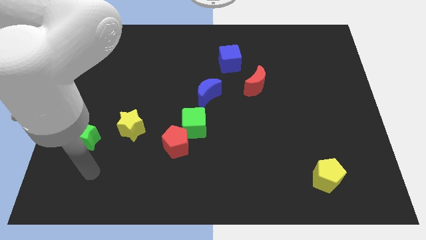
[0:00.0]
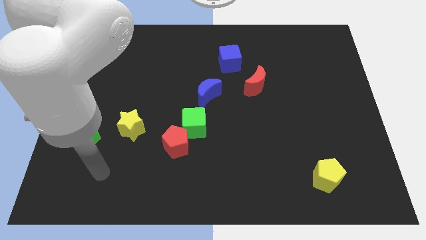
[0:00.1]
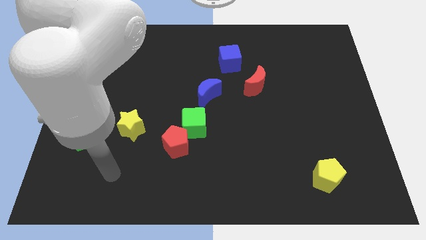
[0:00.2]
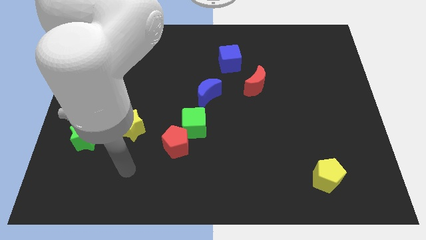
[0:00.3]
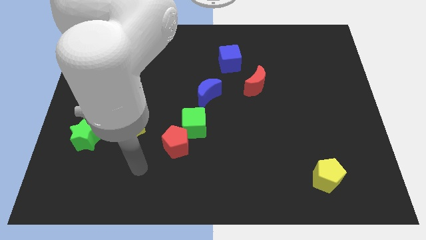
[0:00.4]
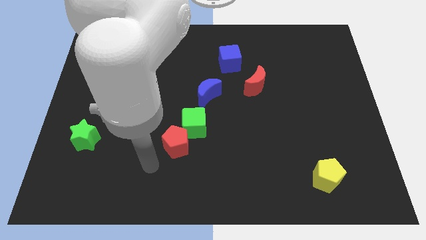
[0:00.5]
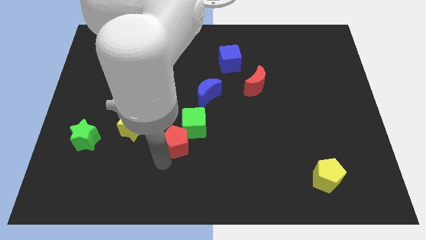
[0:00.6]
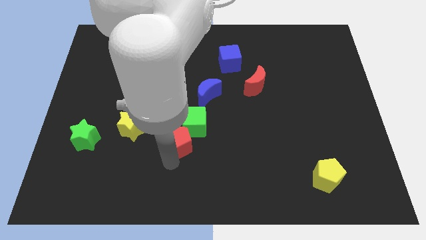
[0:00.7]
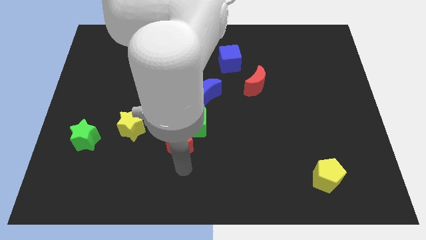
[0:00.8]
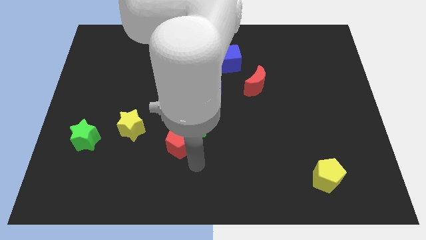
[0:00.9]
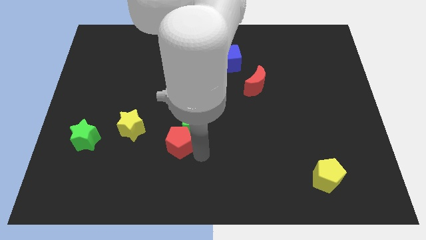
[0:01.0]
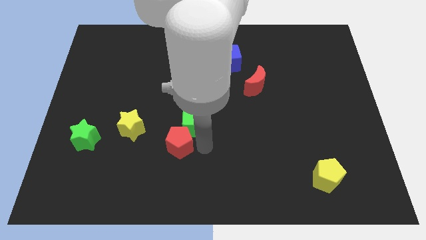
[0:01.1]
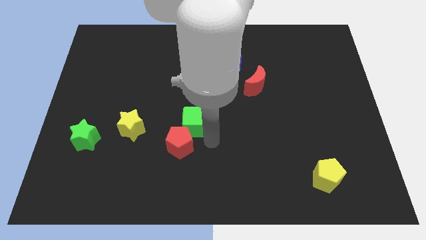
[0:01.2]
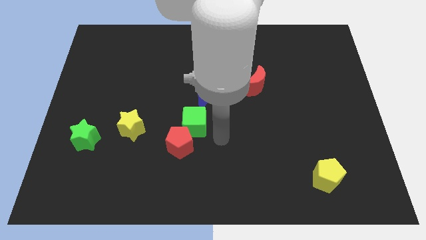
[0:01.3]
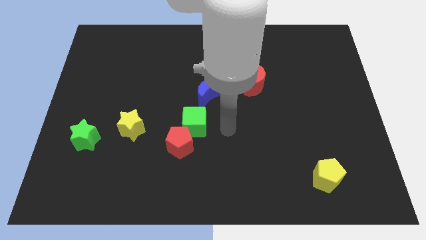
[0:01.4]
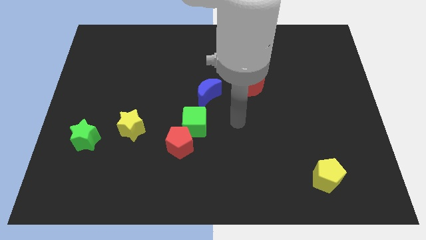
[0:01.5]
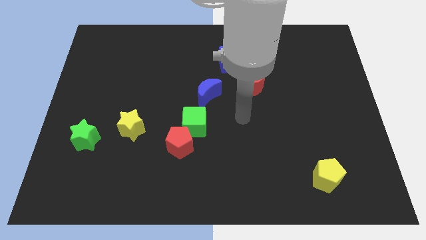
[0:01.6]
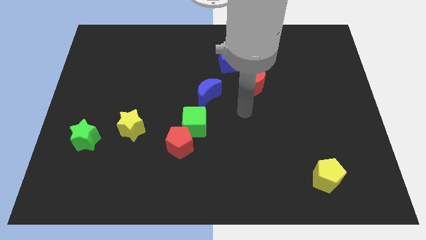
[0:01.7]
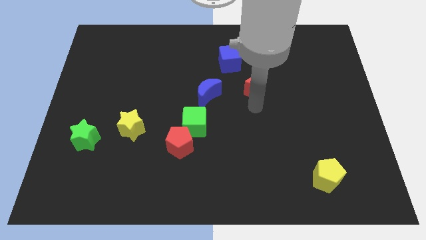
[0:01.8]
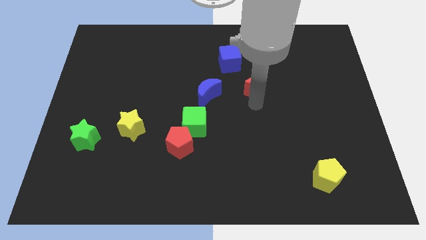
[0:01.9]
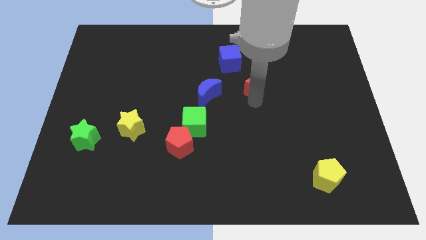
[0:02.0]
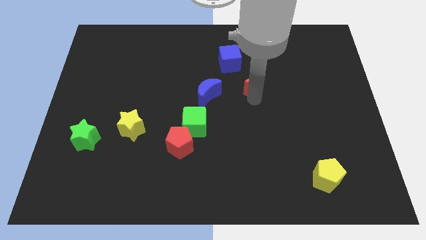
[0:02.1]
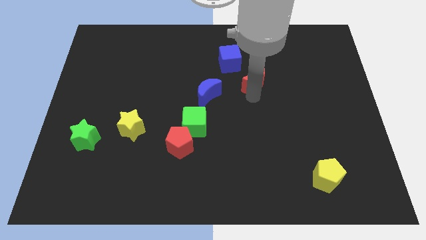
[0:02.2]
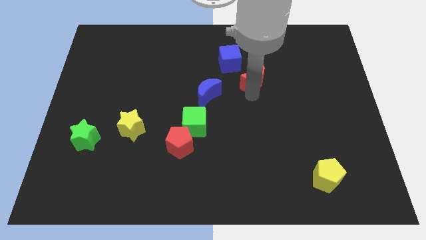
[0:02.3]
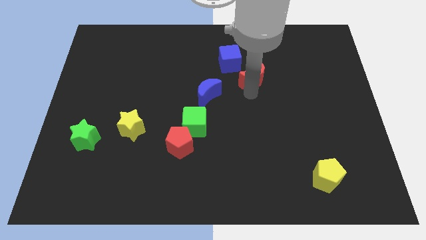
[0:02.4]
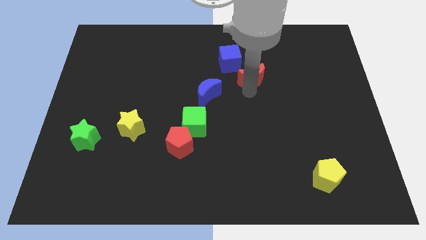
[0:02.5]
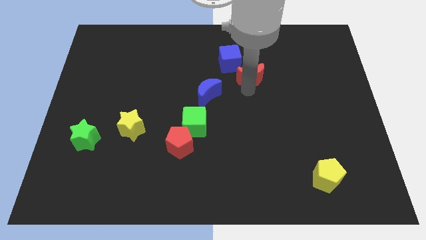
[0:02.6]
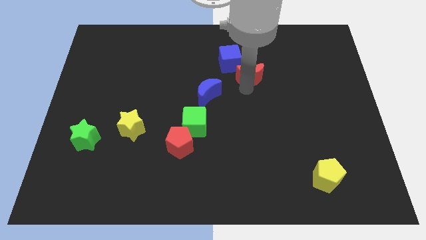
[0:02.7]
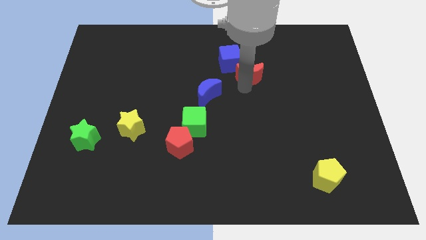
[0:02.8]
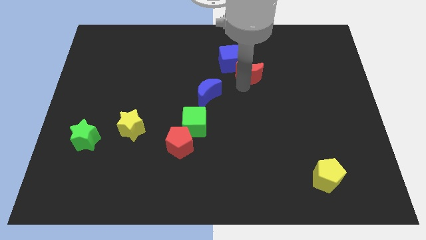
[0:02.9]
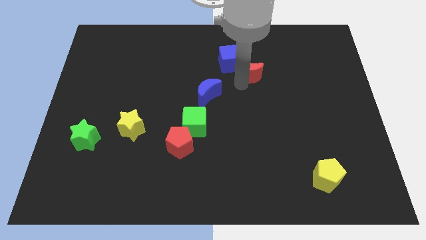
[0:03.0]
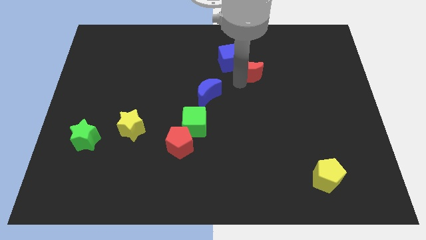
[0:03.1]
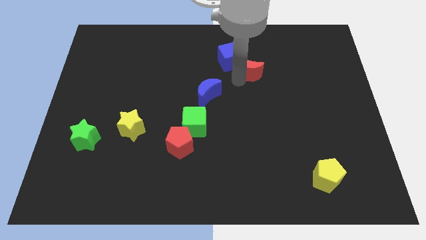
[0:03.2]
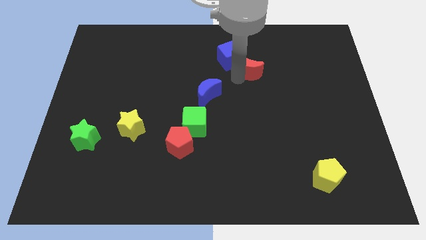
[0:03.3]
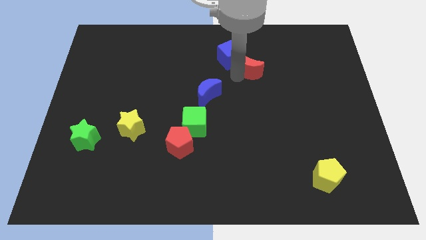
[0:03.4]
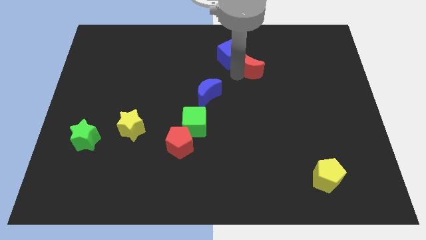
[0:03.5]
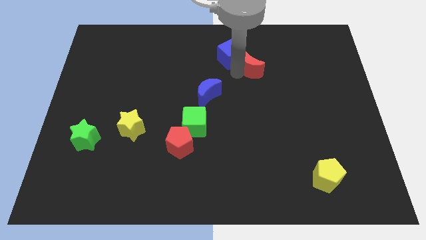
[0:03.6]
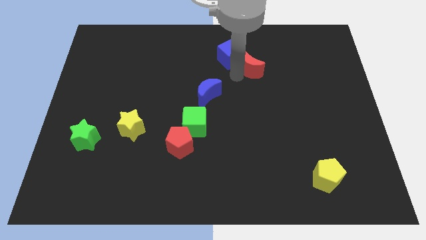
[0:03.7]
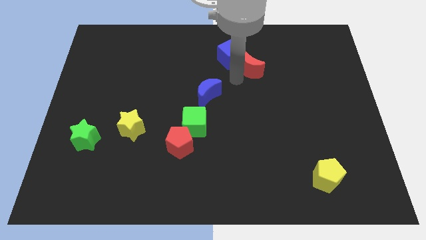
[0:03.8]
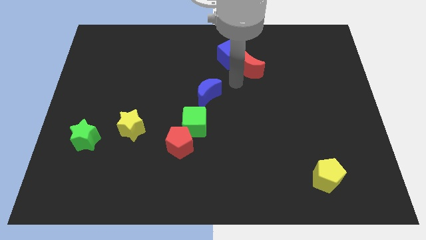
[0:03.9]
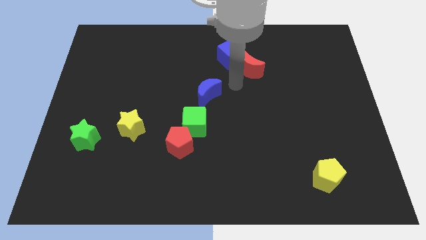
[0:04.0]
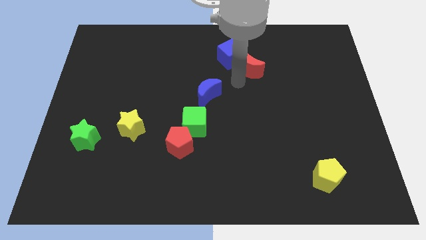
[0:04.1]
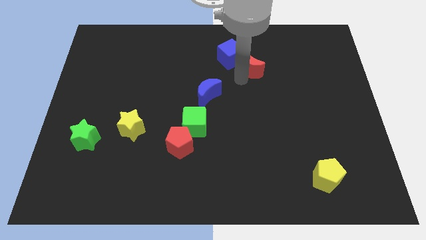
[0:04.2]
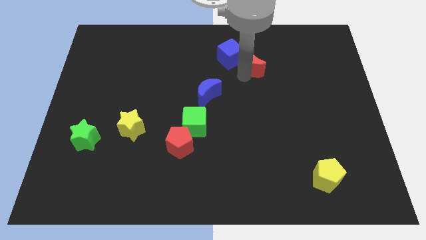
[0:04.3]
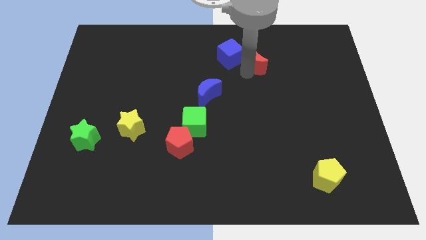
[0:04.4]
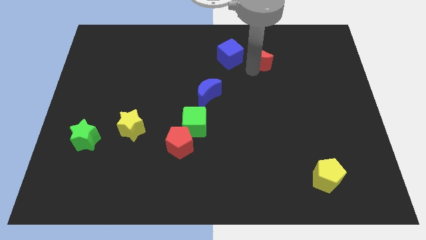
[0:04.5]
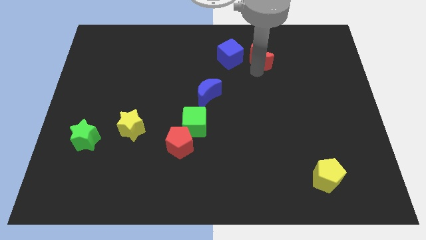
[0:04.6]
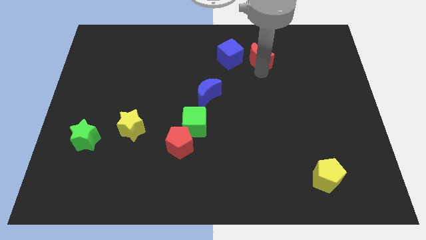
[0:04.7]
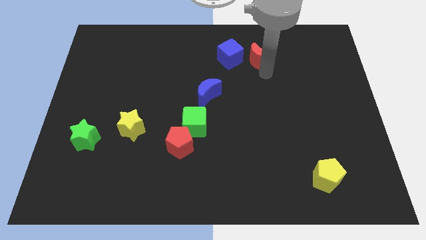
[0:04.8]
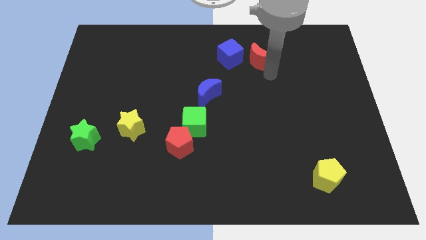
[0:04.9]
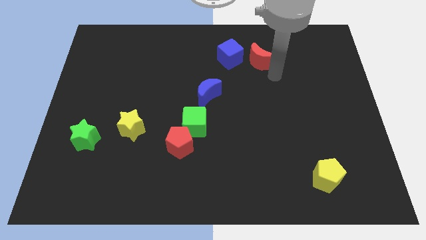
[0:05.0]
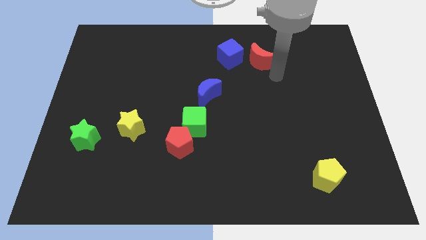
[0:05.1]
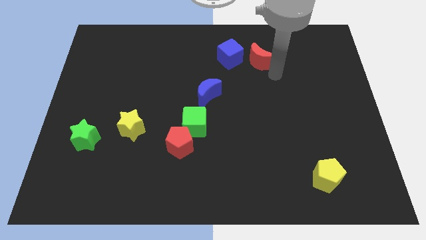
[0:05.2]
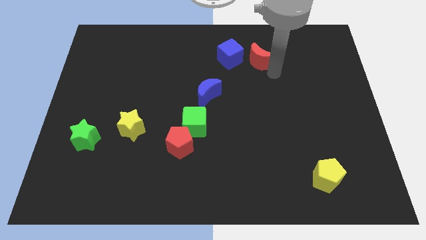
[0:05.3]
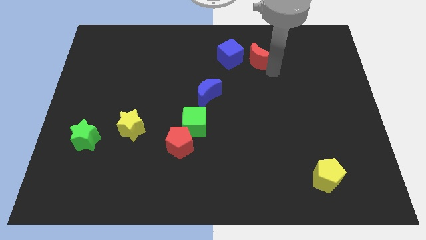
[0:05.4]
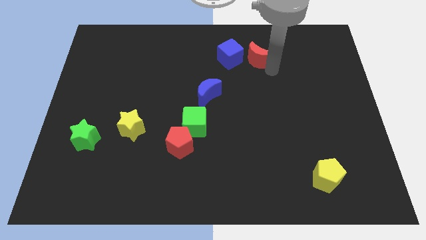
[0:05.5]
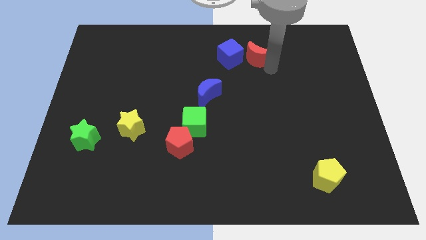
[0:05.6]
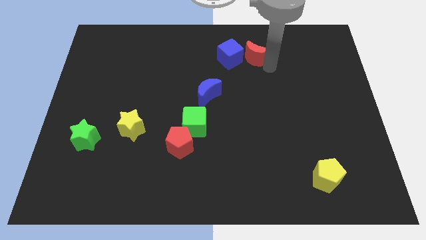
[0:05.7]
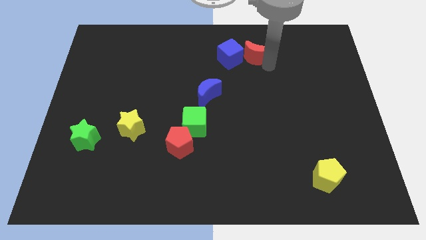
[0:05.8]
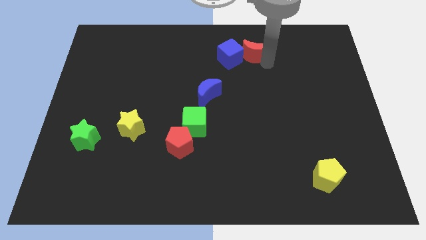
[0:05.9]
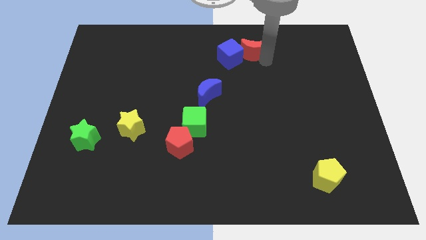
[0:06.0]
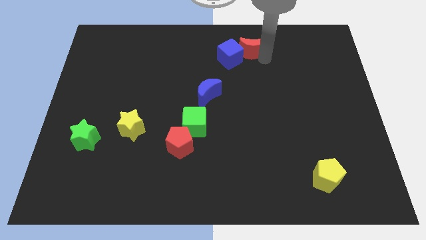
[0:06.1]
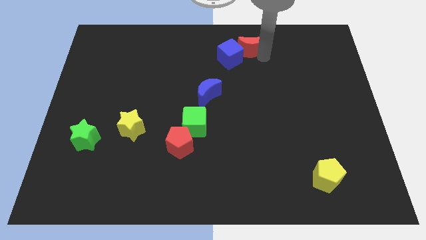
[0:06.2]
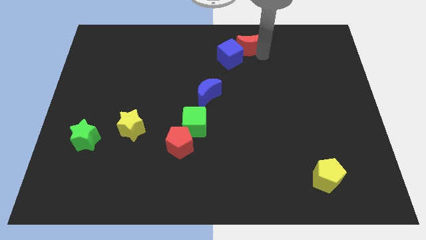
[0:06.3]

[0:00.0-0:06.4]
slide the red moon to the towards your base
